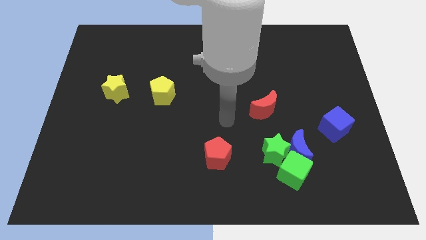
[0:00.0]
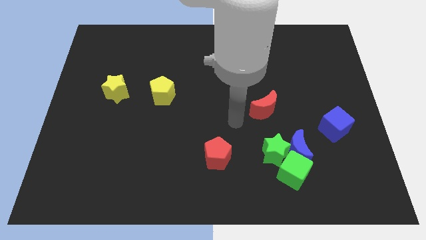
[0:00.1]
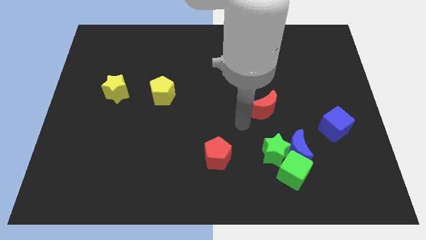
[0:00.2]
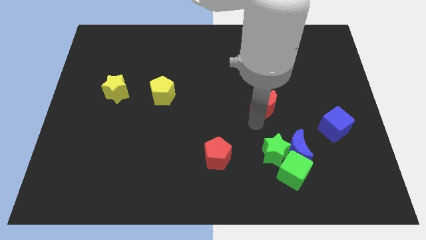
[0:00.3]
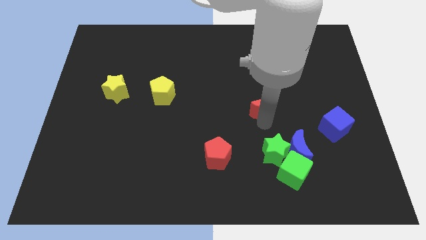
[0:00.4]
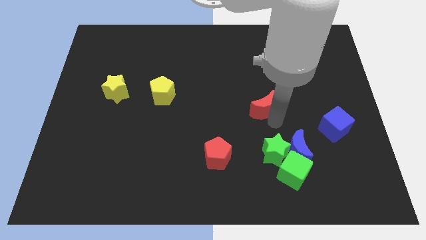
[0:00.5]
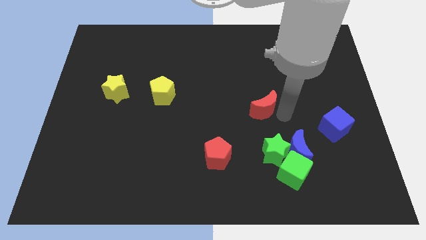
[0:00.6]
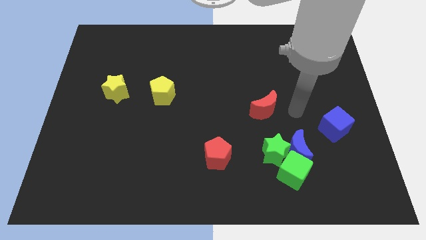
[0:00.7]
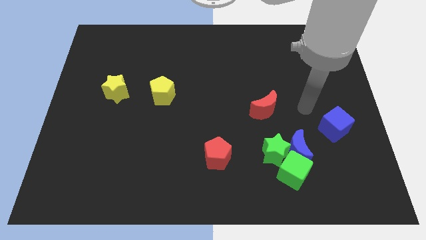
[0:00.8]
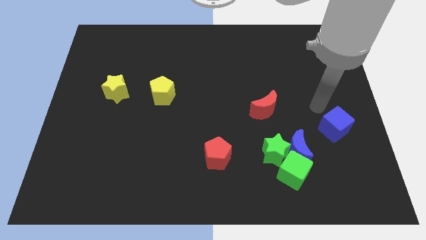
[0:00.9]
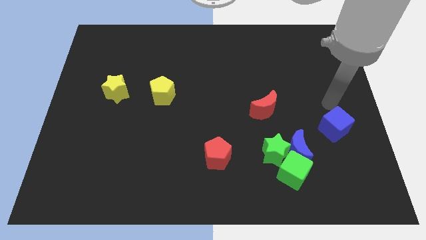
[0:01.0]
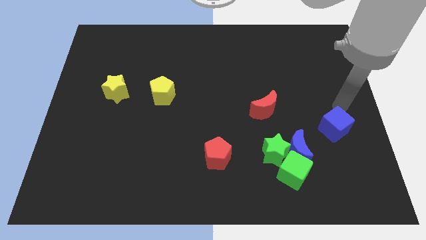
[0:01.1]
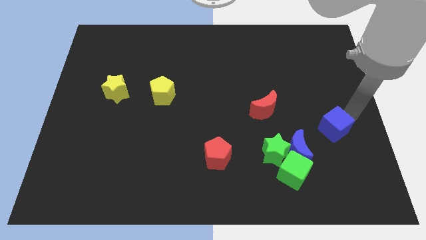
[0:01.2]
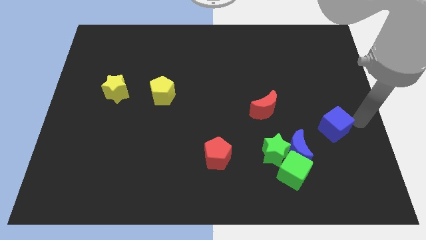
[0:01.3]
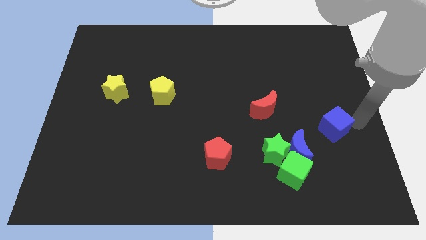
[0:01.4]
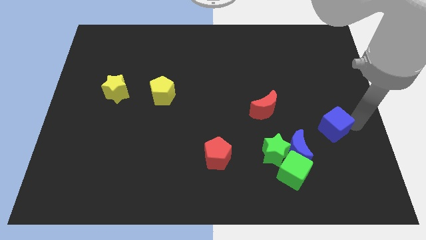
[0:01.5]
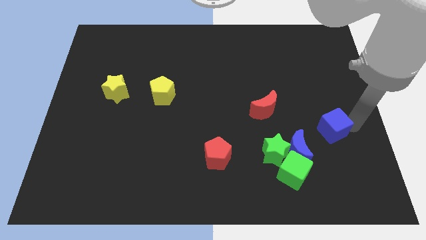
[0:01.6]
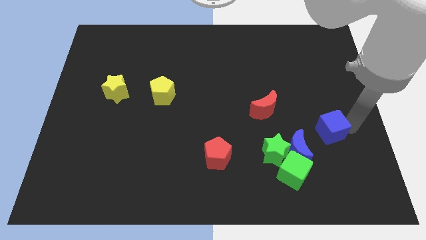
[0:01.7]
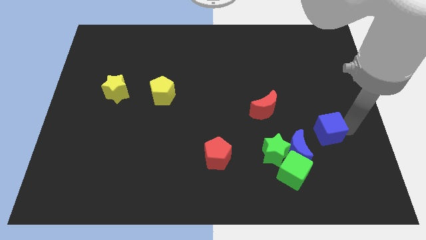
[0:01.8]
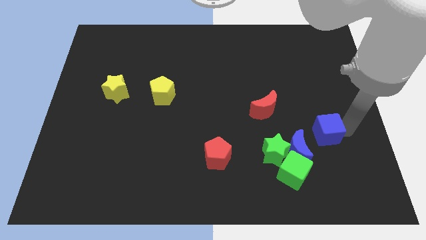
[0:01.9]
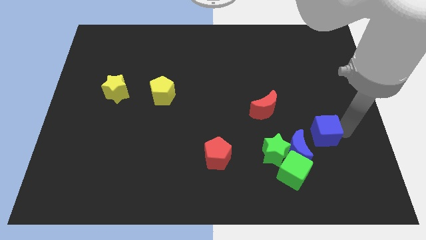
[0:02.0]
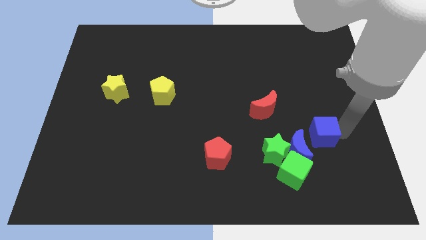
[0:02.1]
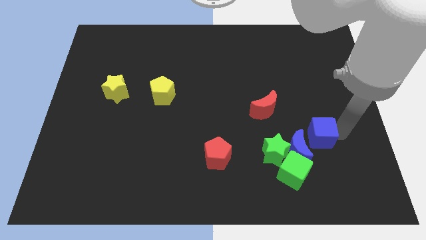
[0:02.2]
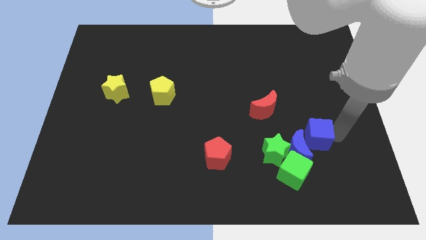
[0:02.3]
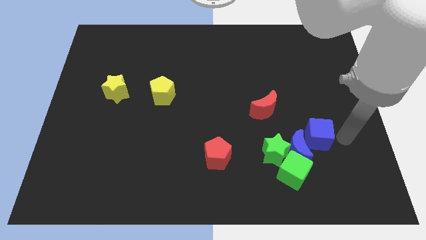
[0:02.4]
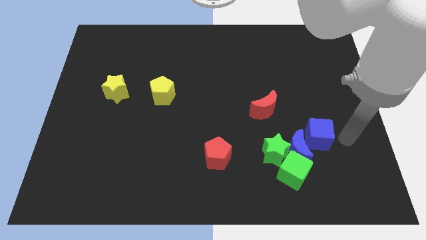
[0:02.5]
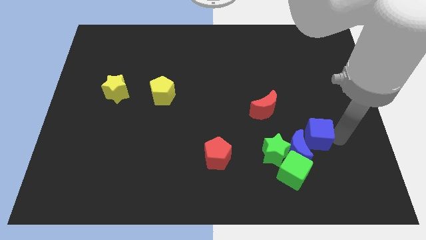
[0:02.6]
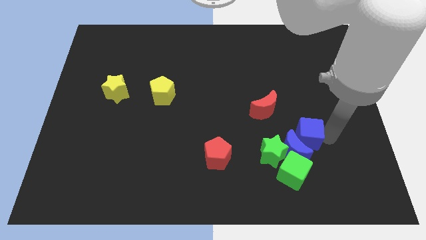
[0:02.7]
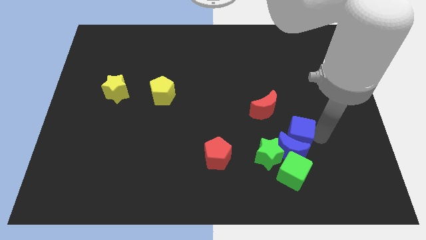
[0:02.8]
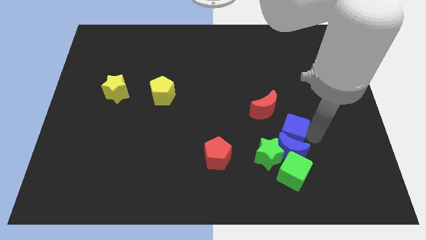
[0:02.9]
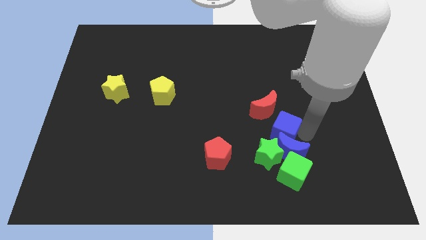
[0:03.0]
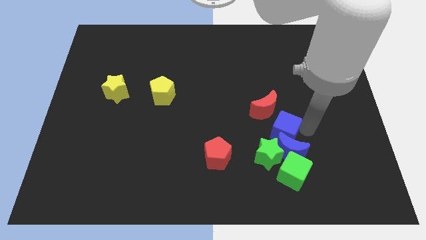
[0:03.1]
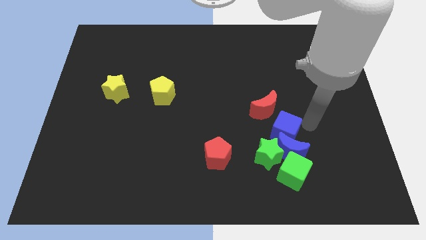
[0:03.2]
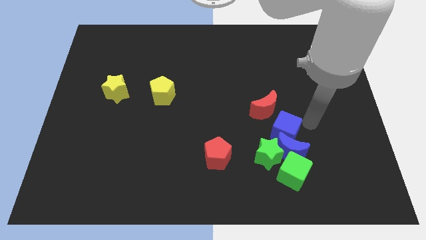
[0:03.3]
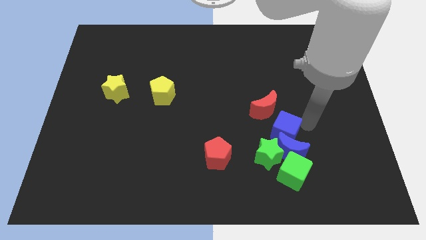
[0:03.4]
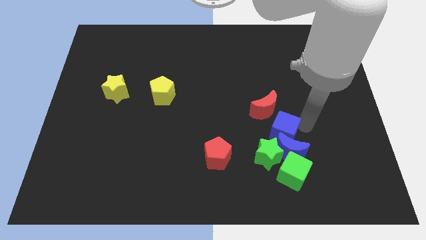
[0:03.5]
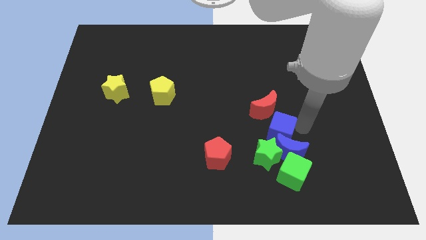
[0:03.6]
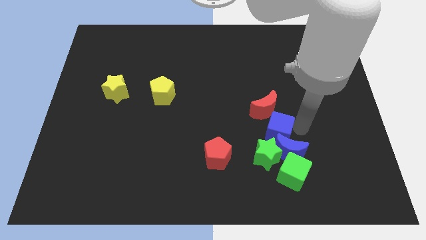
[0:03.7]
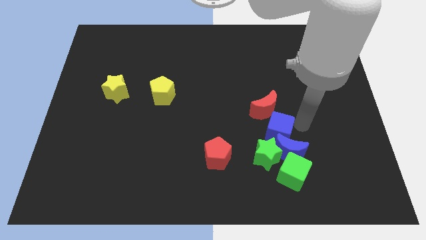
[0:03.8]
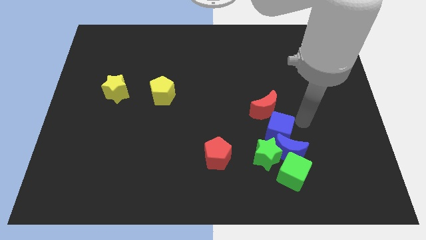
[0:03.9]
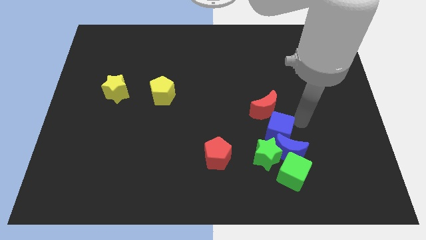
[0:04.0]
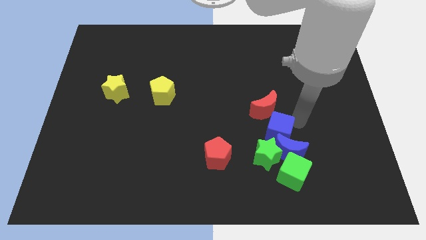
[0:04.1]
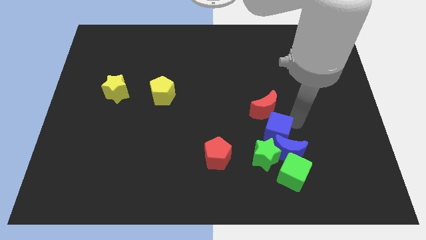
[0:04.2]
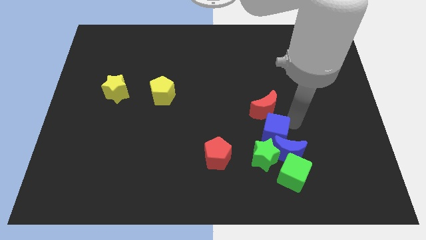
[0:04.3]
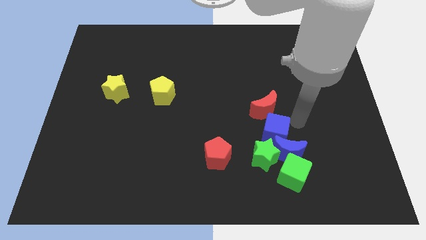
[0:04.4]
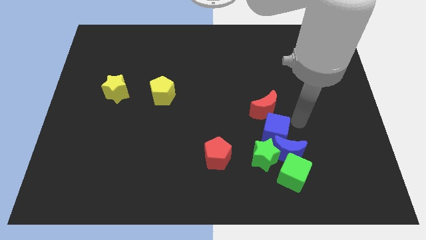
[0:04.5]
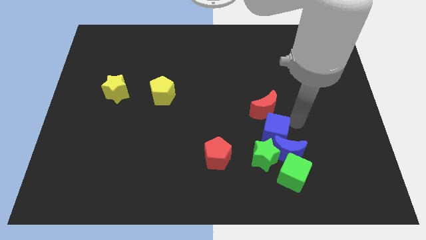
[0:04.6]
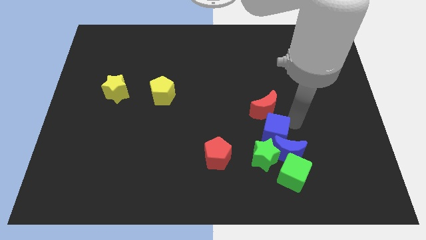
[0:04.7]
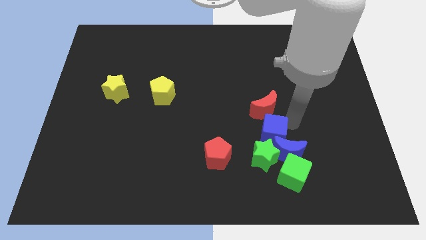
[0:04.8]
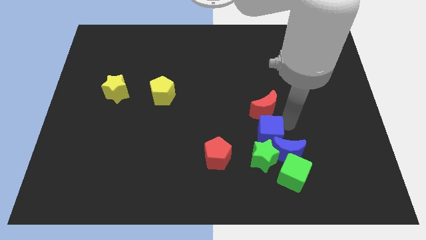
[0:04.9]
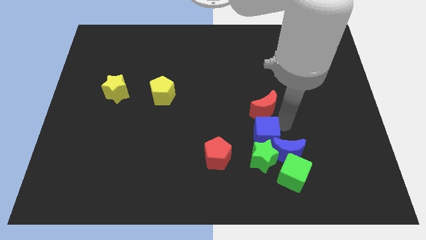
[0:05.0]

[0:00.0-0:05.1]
move the blue cube just left of the blue moon

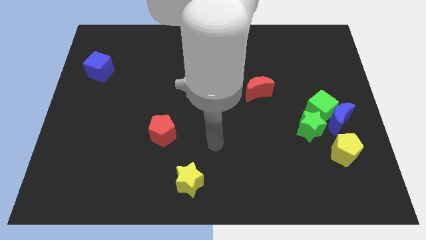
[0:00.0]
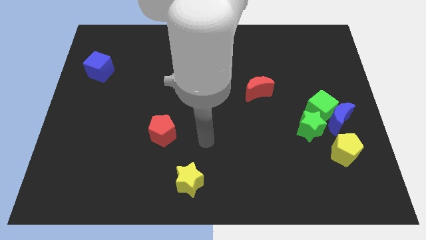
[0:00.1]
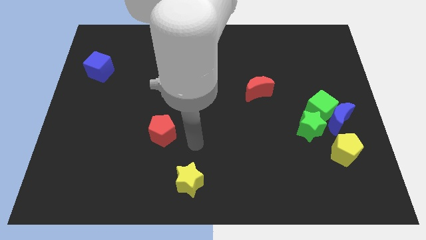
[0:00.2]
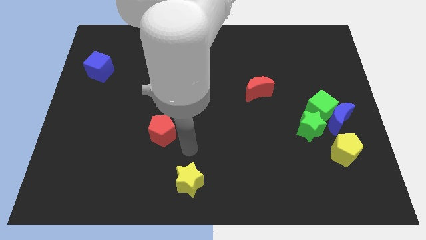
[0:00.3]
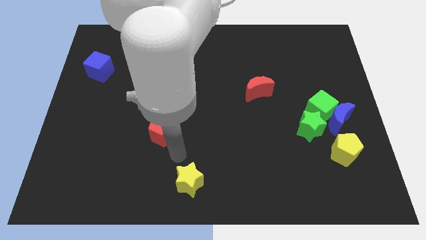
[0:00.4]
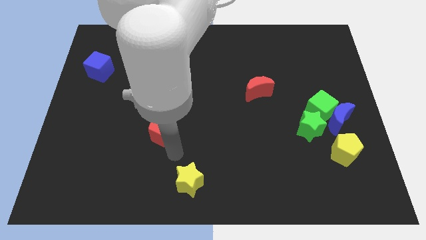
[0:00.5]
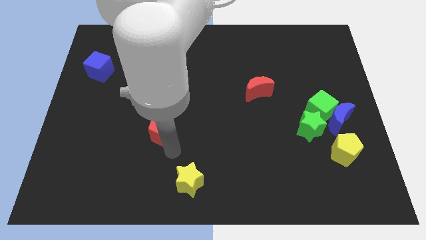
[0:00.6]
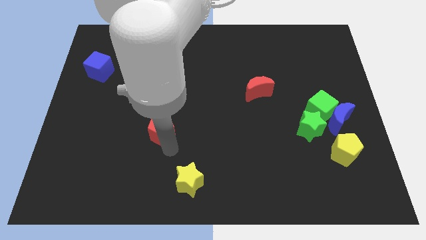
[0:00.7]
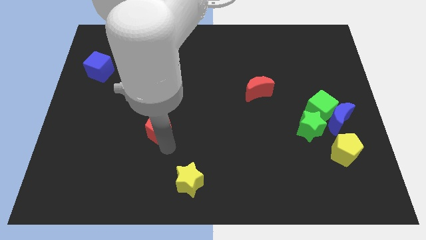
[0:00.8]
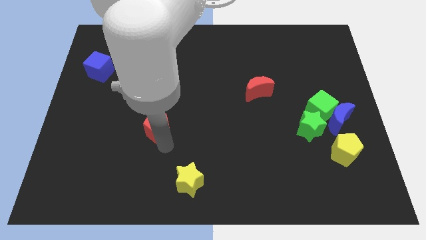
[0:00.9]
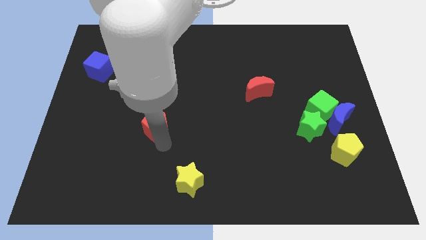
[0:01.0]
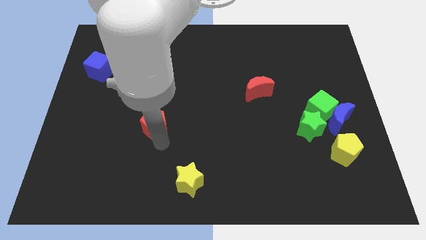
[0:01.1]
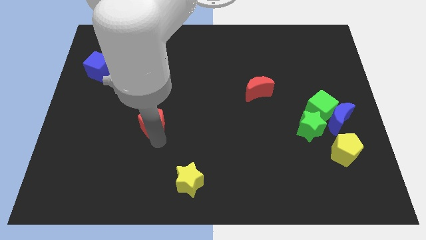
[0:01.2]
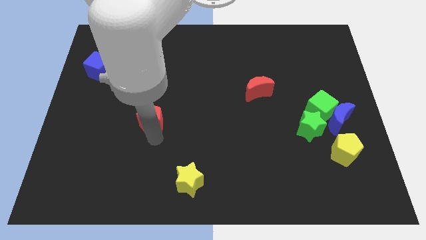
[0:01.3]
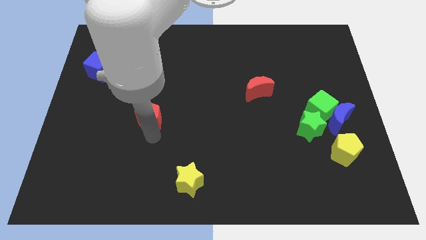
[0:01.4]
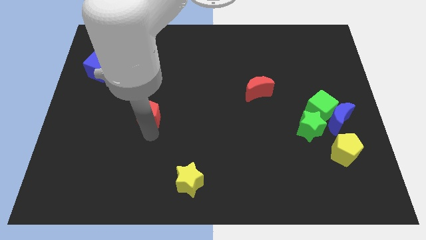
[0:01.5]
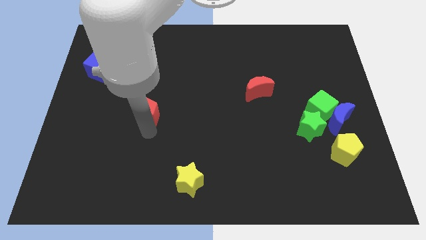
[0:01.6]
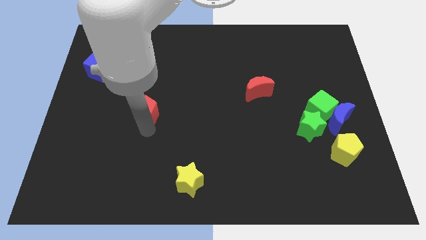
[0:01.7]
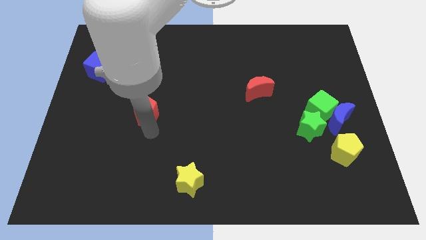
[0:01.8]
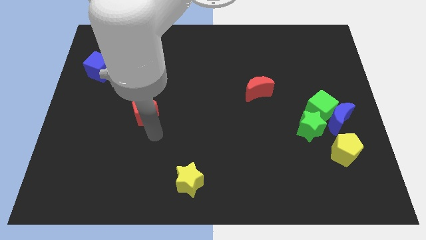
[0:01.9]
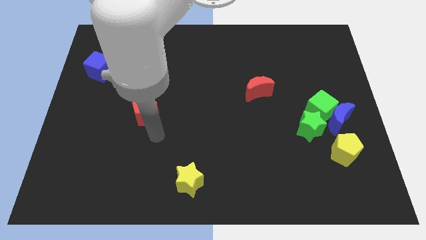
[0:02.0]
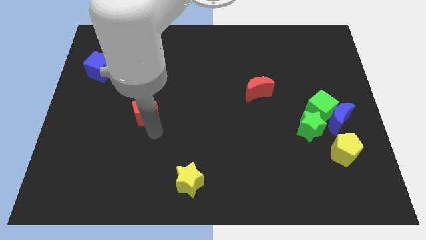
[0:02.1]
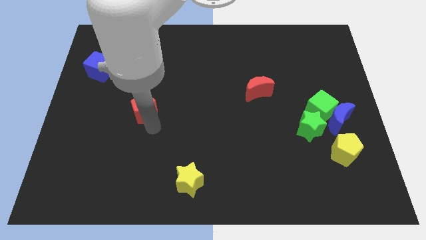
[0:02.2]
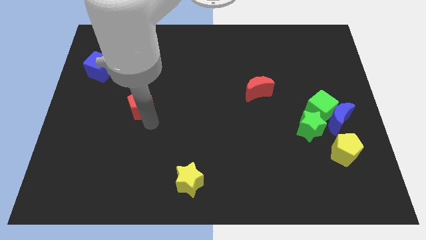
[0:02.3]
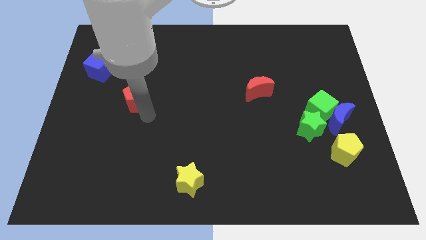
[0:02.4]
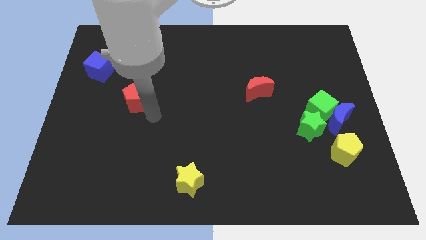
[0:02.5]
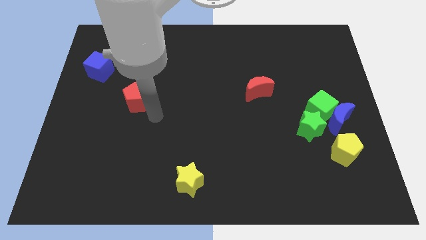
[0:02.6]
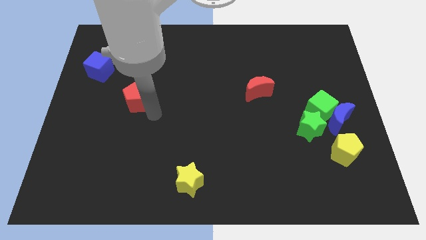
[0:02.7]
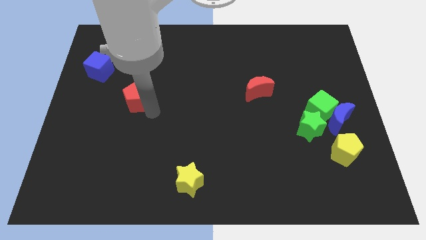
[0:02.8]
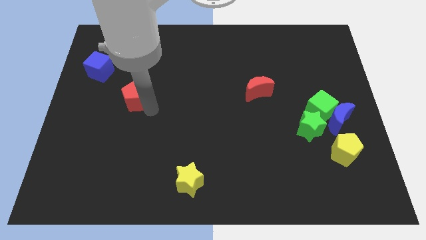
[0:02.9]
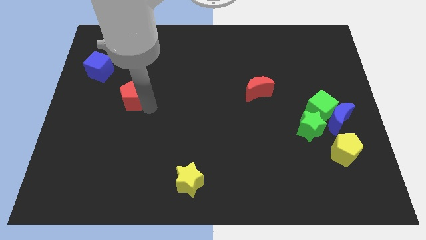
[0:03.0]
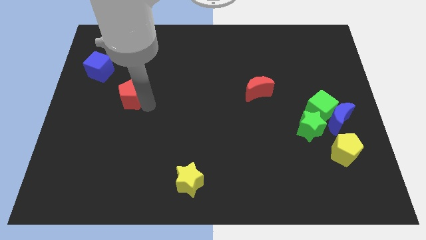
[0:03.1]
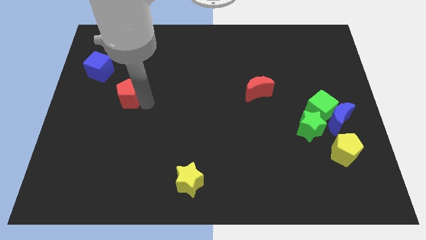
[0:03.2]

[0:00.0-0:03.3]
slide the red pentagon diagonally down and to the right of the blue cube
